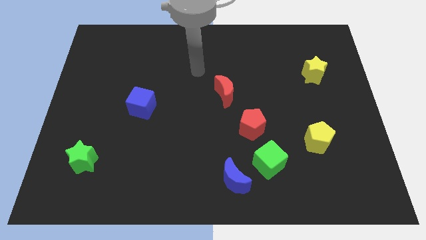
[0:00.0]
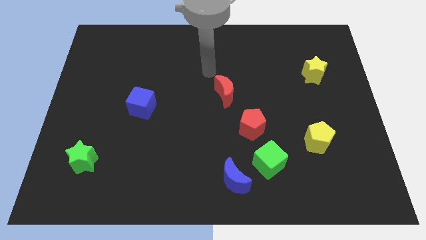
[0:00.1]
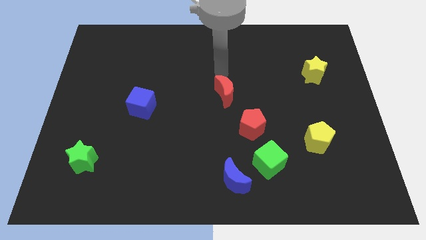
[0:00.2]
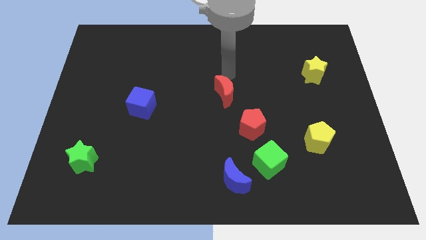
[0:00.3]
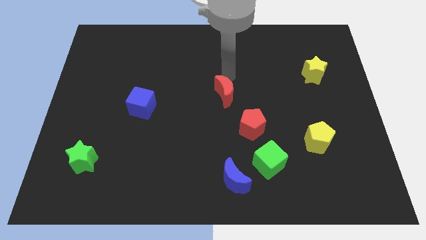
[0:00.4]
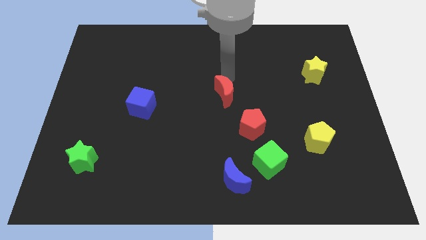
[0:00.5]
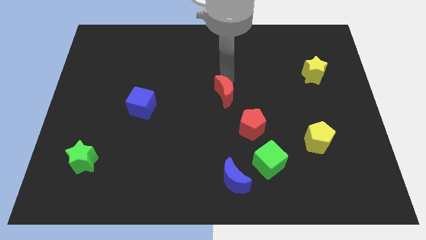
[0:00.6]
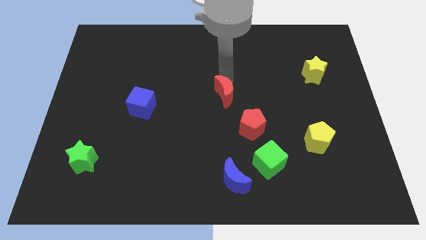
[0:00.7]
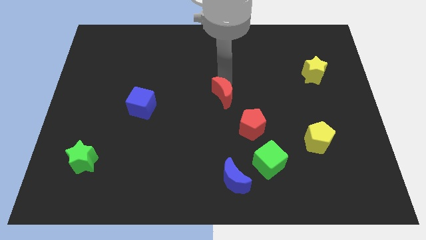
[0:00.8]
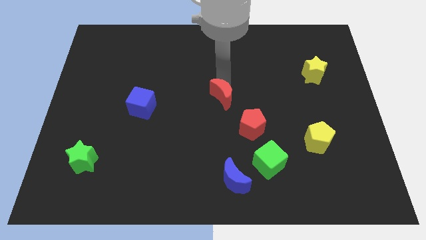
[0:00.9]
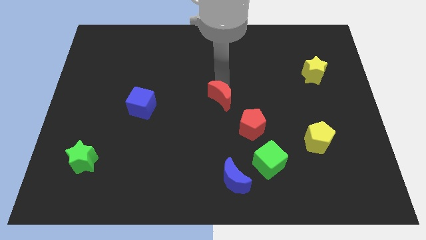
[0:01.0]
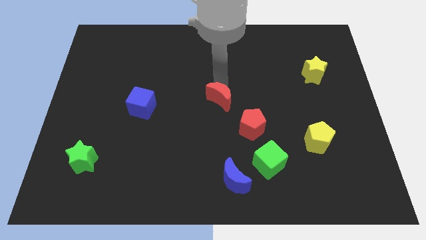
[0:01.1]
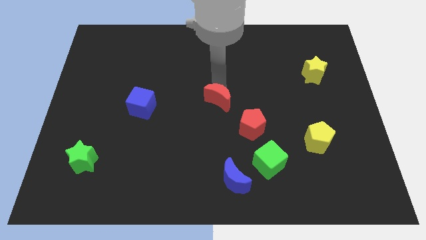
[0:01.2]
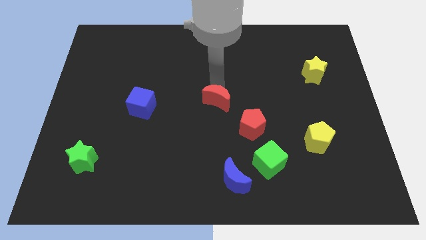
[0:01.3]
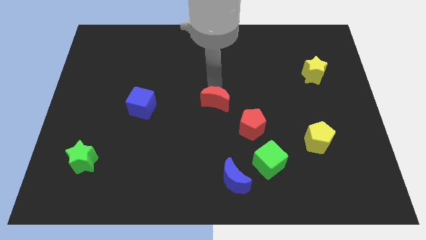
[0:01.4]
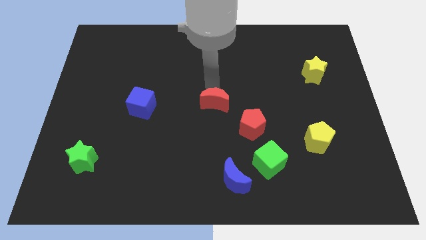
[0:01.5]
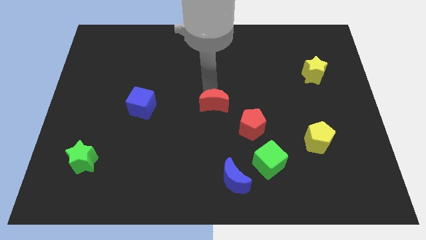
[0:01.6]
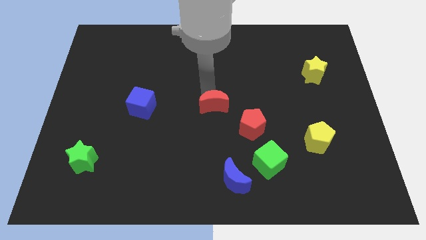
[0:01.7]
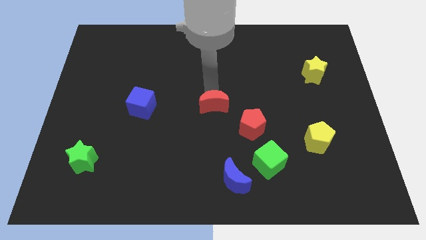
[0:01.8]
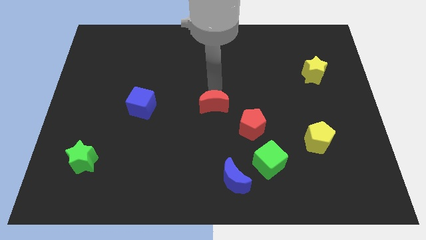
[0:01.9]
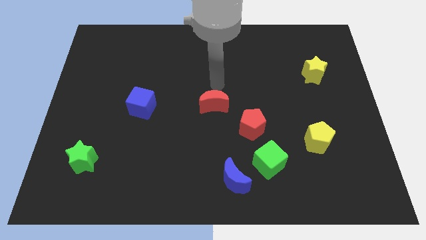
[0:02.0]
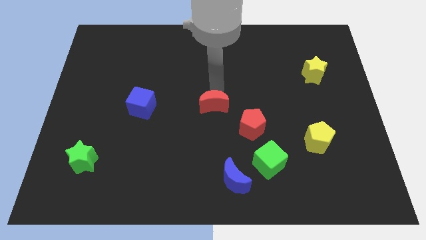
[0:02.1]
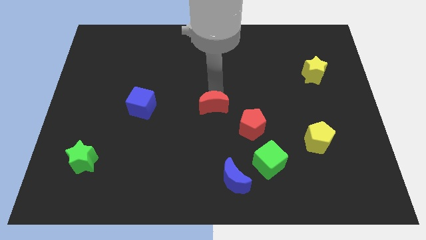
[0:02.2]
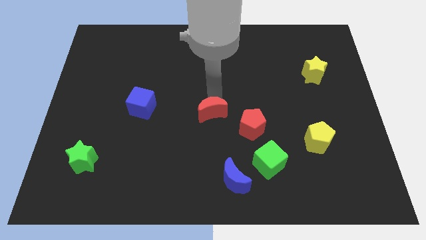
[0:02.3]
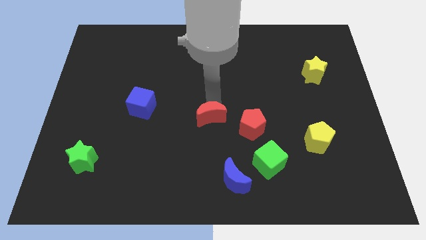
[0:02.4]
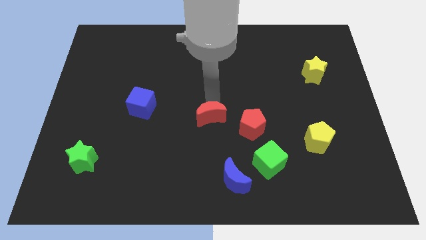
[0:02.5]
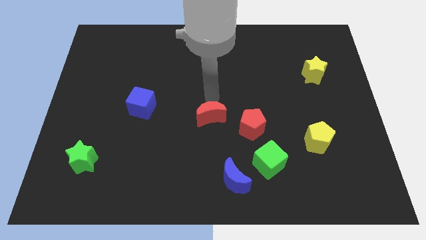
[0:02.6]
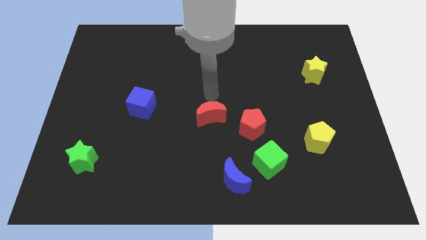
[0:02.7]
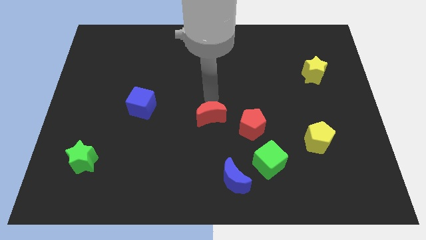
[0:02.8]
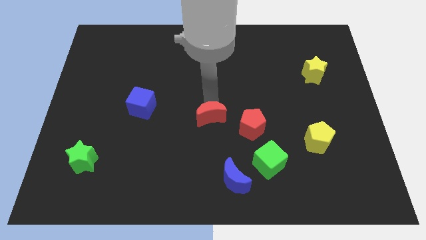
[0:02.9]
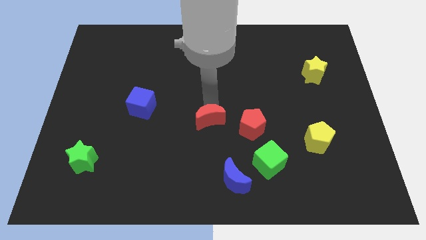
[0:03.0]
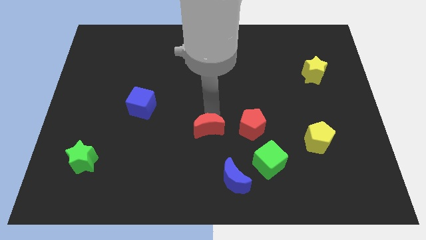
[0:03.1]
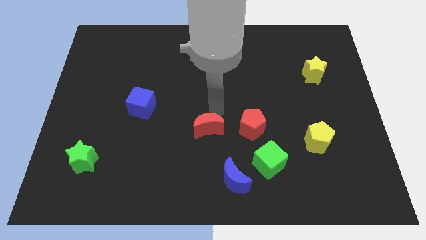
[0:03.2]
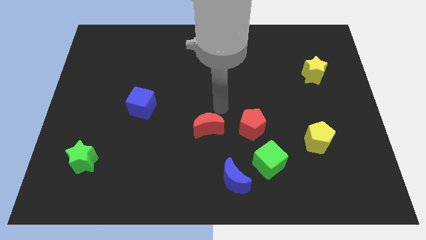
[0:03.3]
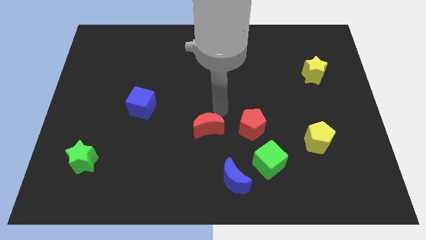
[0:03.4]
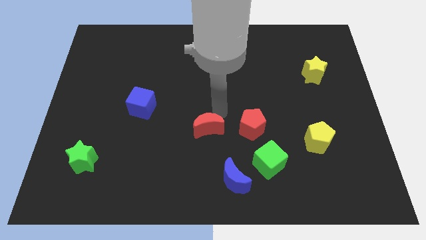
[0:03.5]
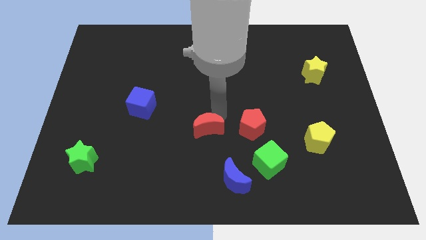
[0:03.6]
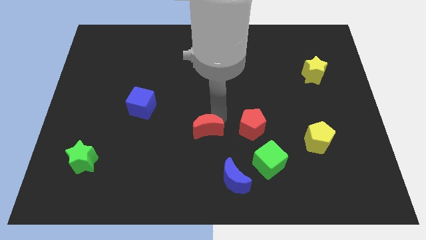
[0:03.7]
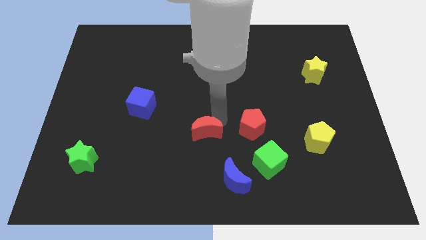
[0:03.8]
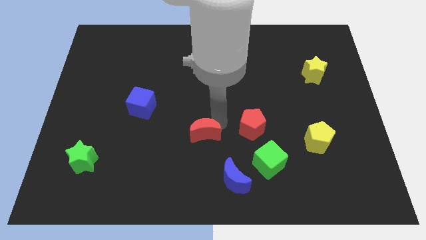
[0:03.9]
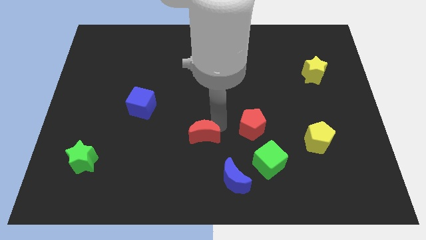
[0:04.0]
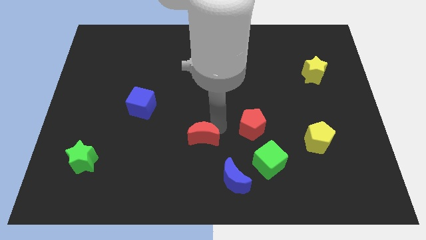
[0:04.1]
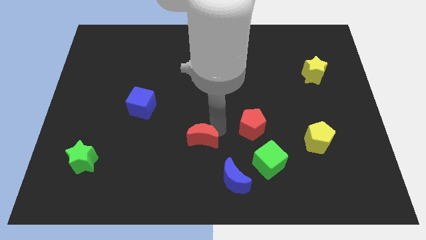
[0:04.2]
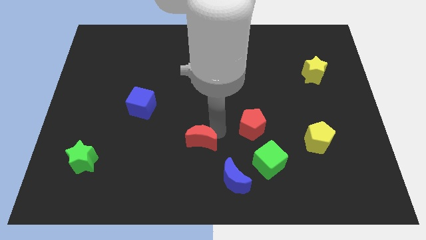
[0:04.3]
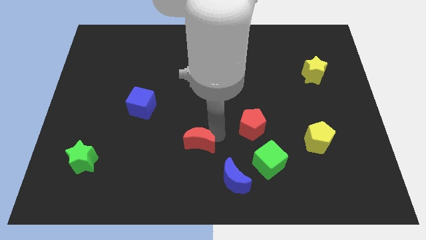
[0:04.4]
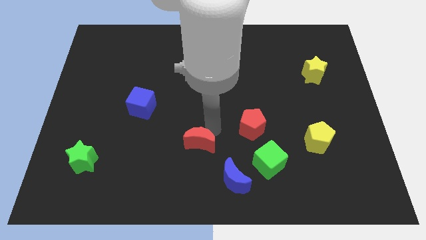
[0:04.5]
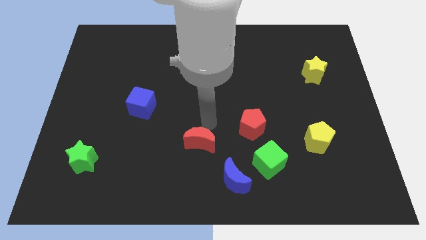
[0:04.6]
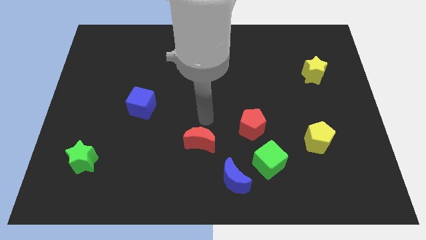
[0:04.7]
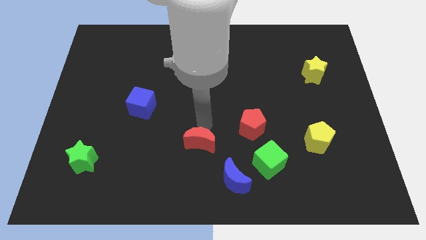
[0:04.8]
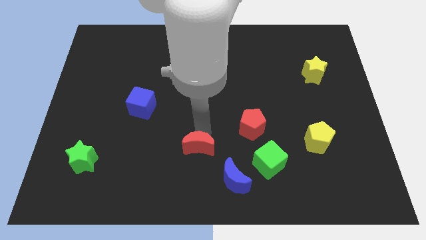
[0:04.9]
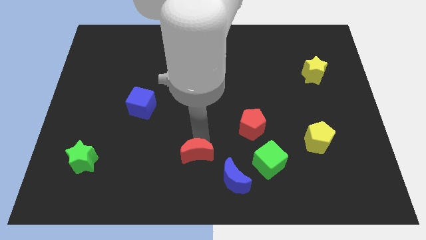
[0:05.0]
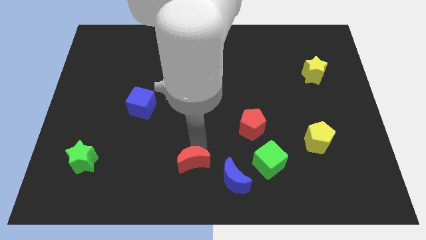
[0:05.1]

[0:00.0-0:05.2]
slide the red moon to the bottom side

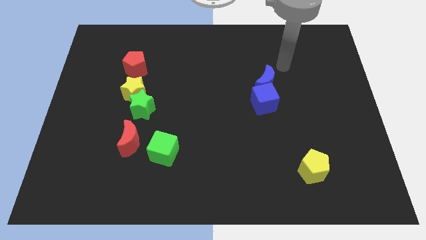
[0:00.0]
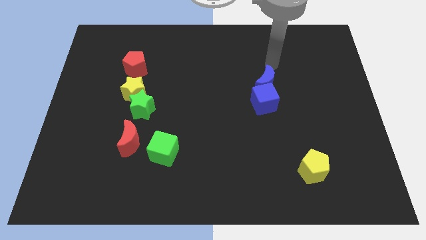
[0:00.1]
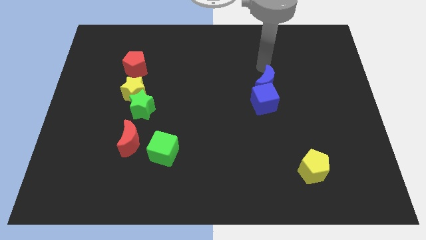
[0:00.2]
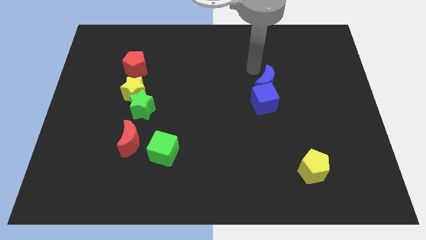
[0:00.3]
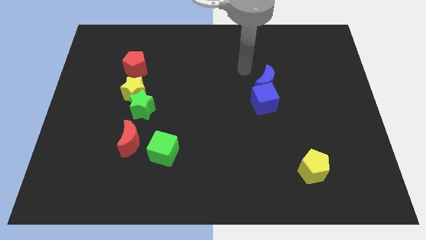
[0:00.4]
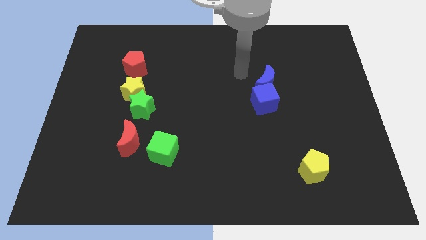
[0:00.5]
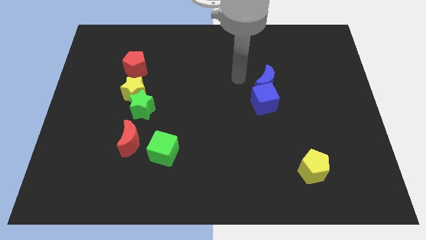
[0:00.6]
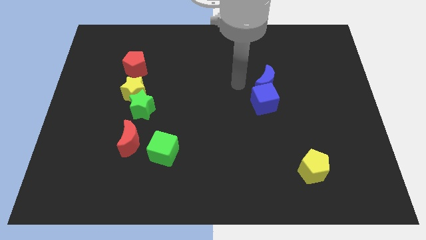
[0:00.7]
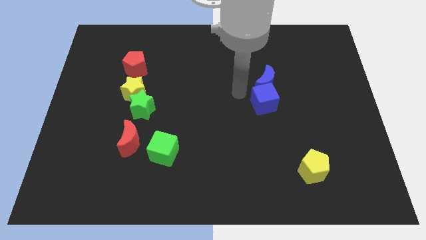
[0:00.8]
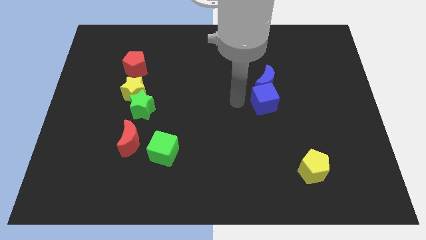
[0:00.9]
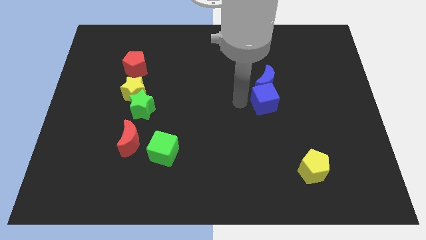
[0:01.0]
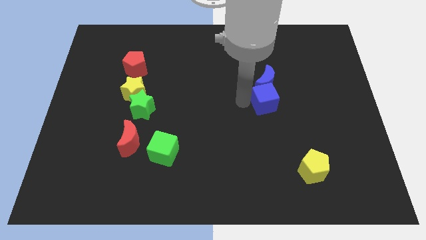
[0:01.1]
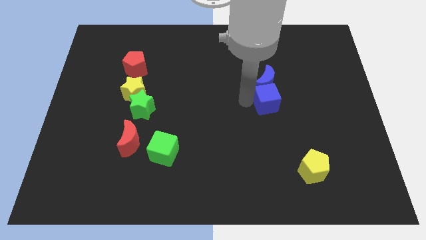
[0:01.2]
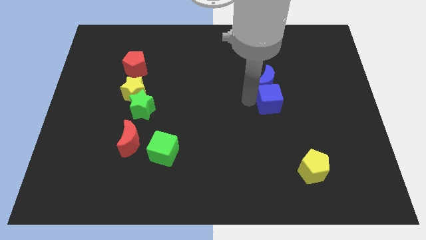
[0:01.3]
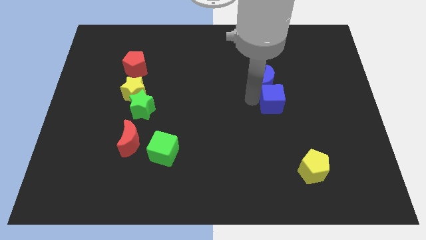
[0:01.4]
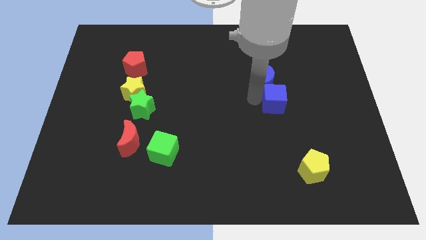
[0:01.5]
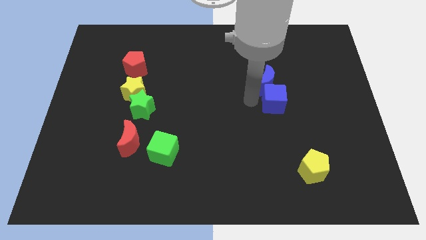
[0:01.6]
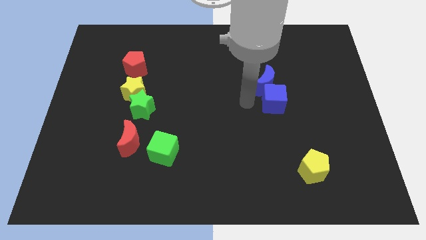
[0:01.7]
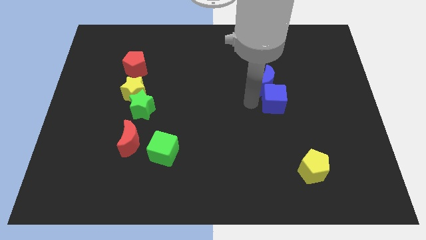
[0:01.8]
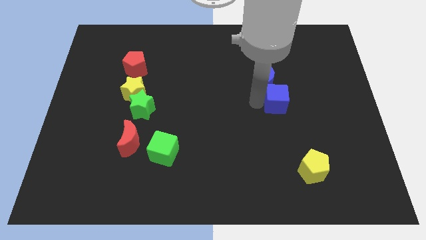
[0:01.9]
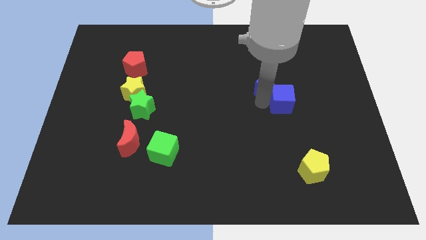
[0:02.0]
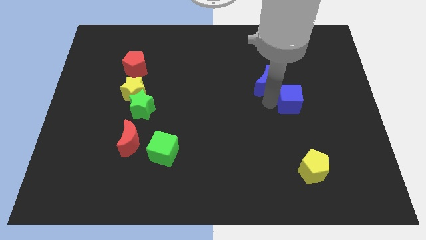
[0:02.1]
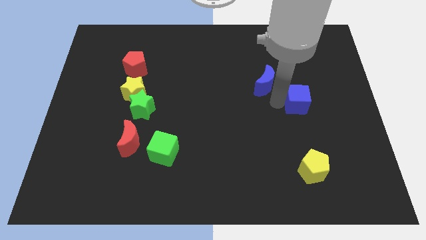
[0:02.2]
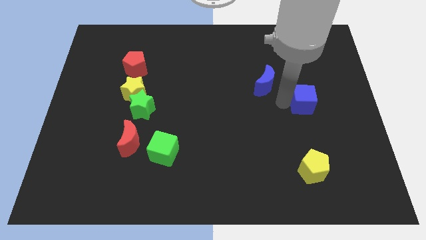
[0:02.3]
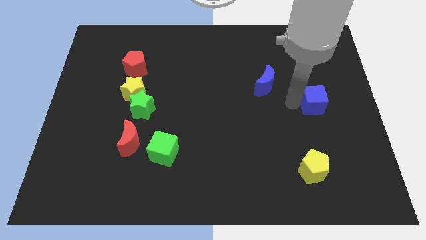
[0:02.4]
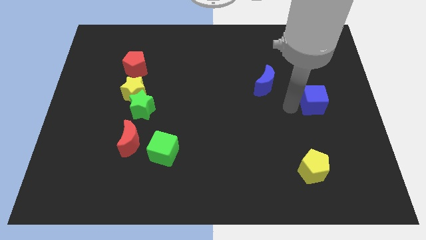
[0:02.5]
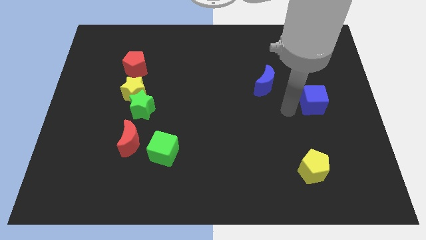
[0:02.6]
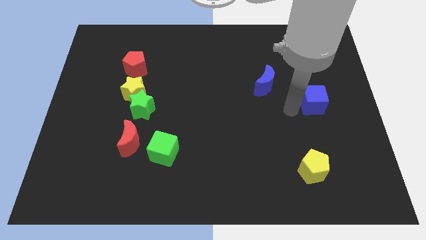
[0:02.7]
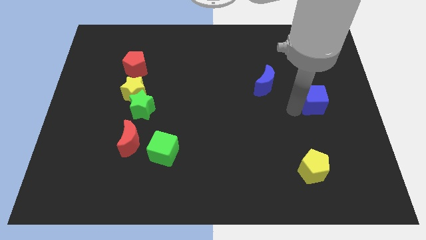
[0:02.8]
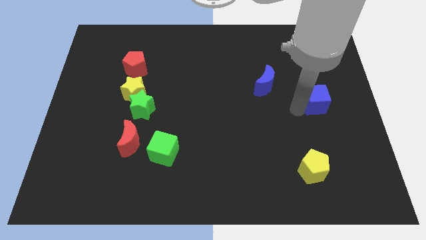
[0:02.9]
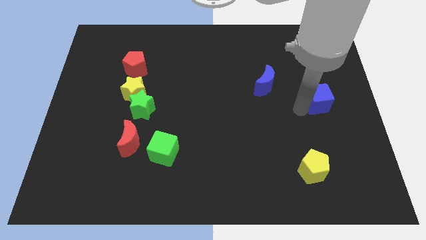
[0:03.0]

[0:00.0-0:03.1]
slide the blue cube to the right side

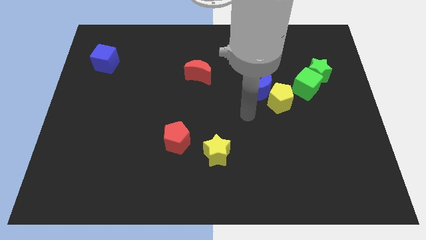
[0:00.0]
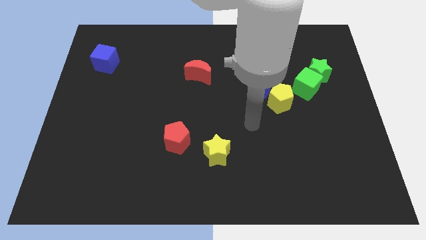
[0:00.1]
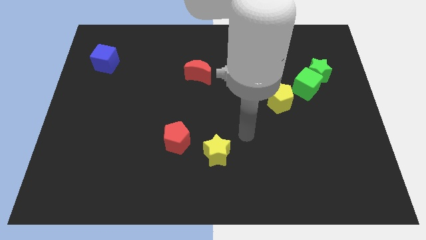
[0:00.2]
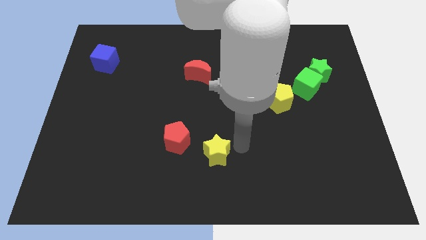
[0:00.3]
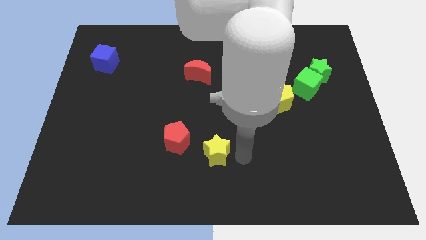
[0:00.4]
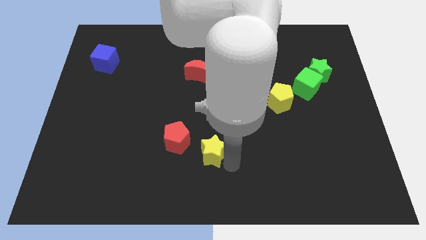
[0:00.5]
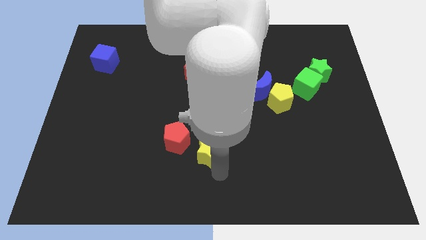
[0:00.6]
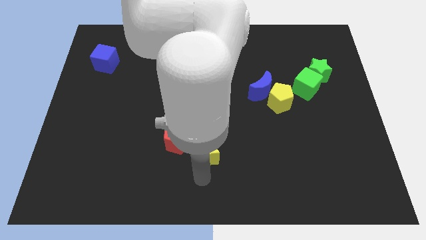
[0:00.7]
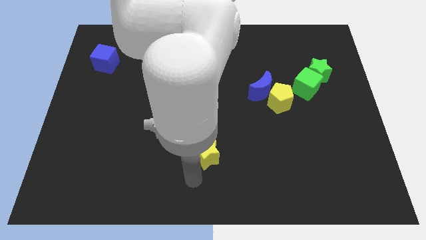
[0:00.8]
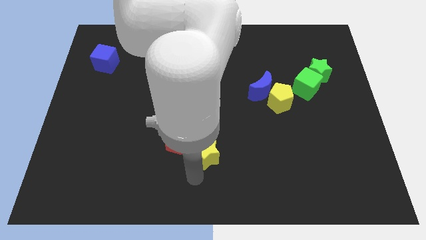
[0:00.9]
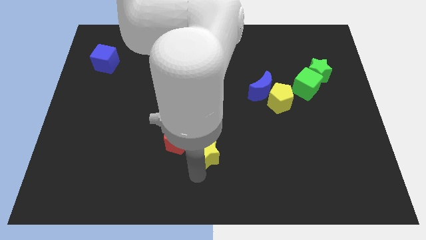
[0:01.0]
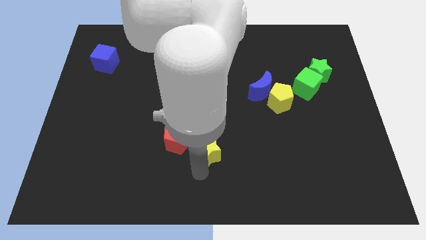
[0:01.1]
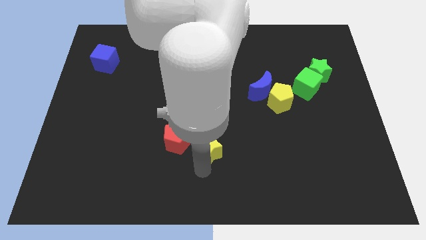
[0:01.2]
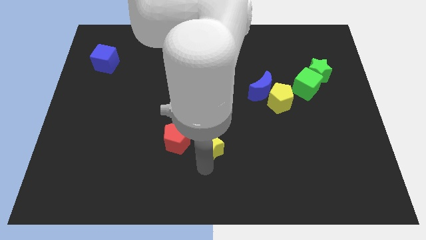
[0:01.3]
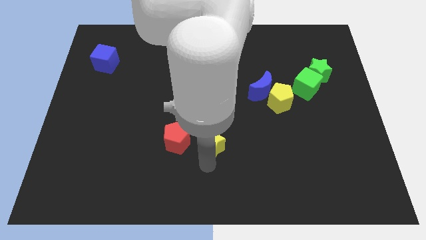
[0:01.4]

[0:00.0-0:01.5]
slide the yellow star to the middle
